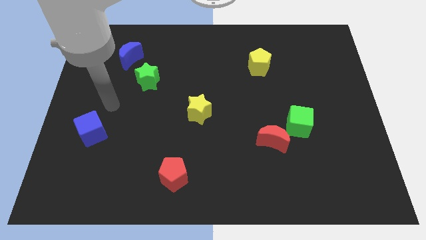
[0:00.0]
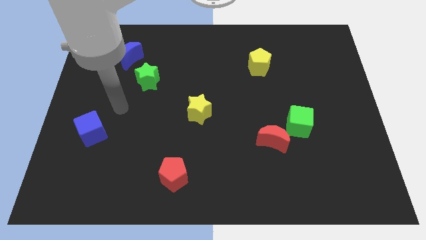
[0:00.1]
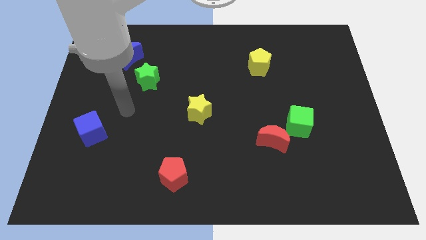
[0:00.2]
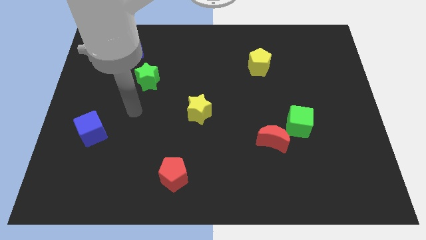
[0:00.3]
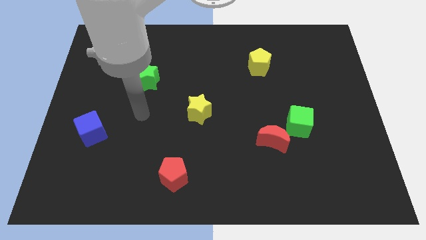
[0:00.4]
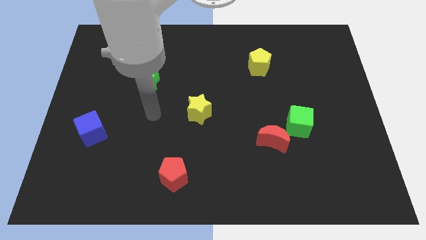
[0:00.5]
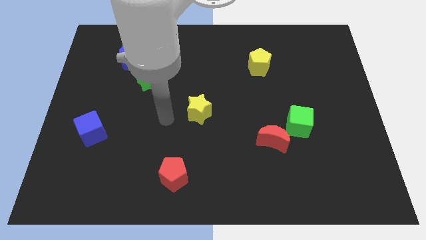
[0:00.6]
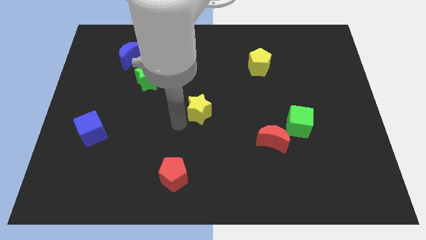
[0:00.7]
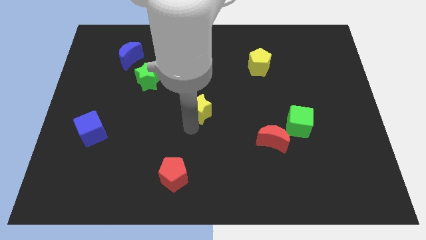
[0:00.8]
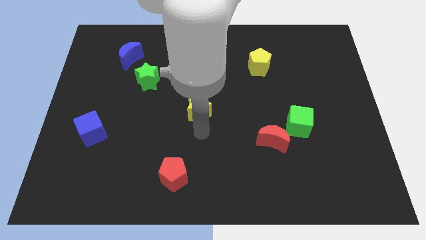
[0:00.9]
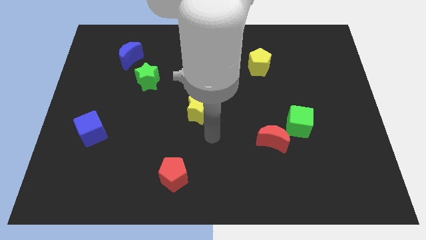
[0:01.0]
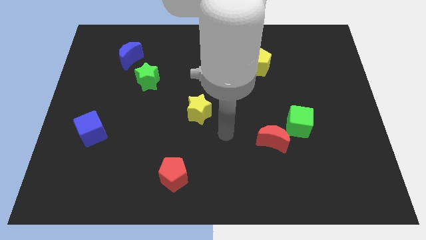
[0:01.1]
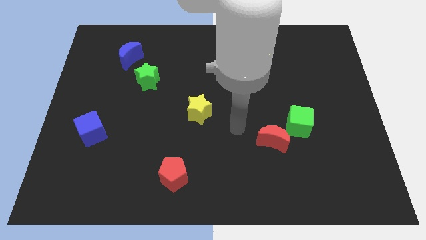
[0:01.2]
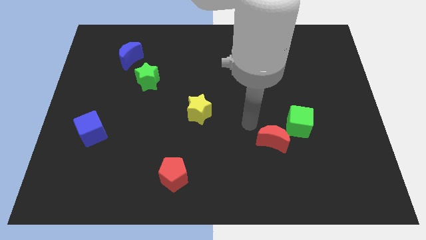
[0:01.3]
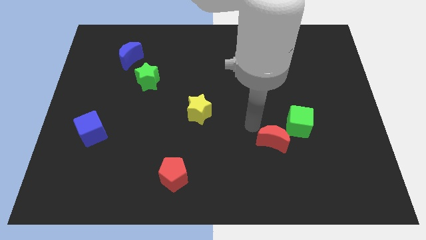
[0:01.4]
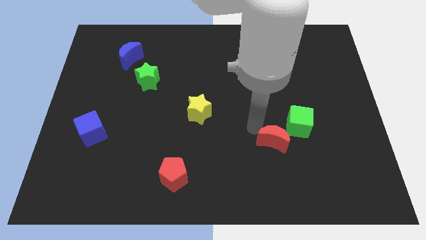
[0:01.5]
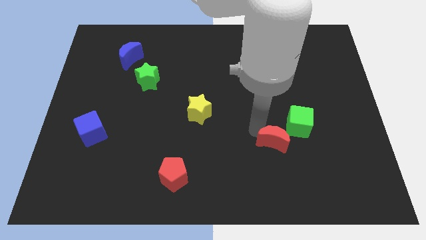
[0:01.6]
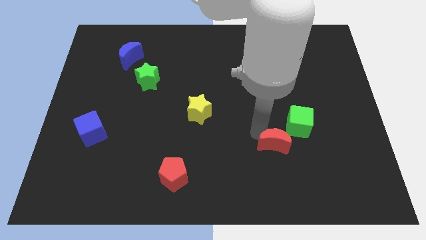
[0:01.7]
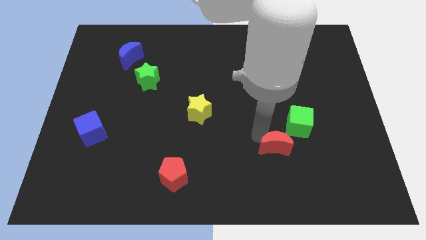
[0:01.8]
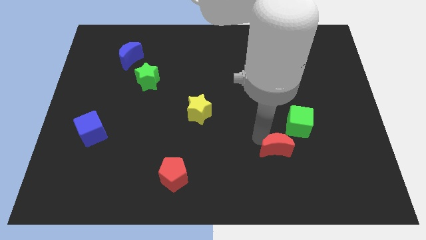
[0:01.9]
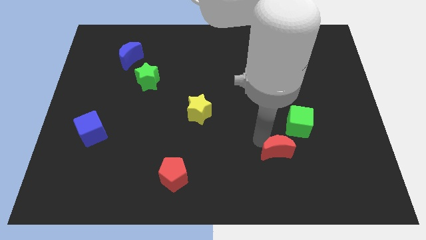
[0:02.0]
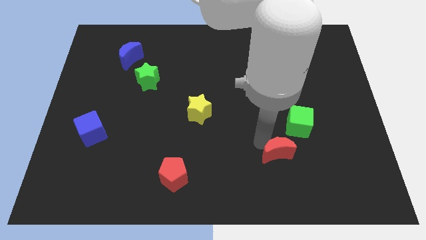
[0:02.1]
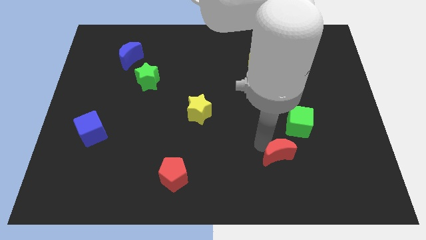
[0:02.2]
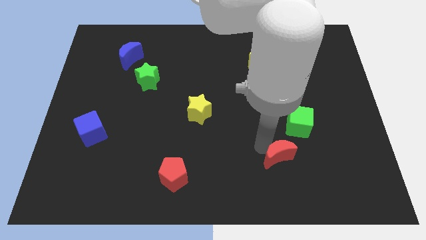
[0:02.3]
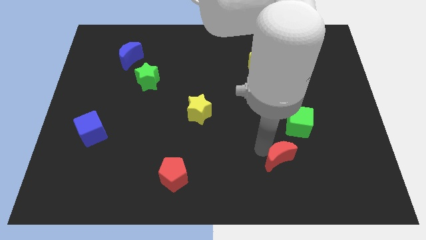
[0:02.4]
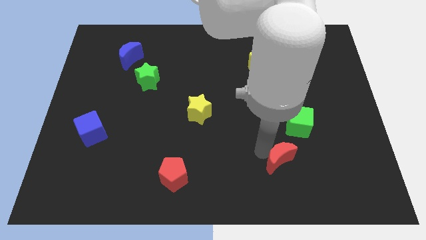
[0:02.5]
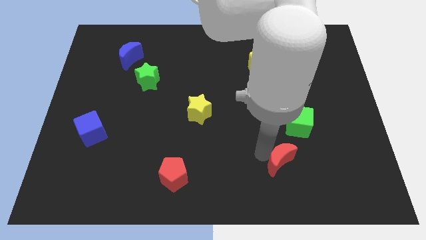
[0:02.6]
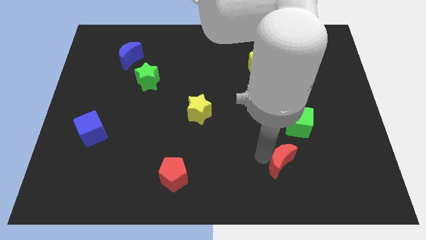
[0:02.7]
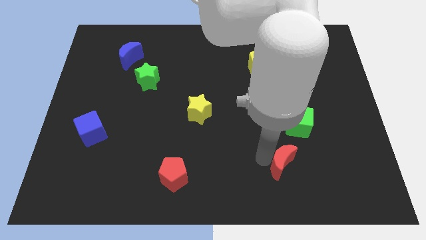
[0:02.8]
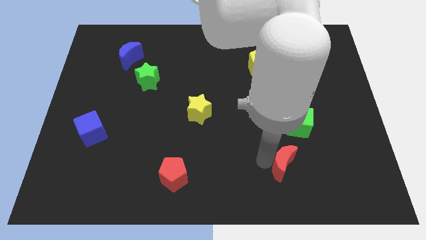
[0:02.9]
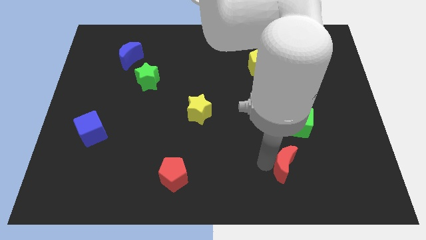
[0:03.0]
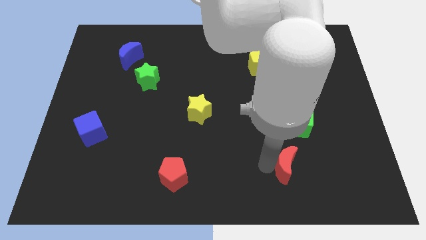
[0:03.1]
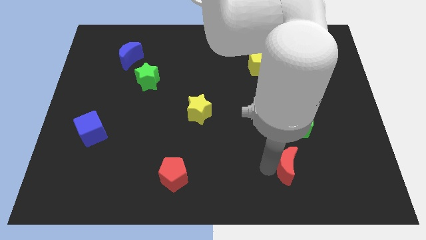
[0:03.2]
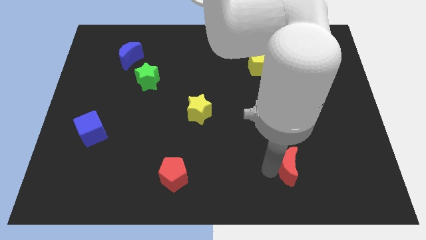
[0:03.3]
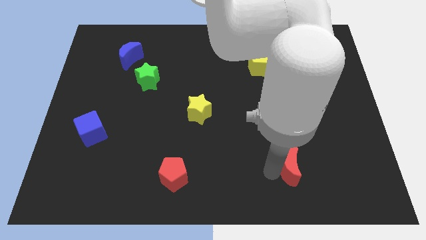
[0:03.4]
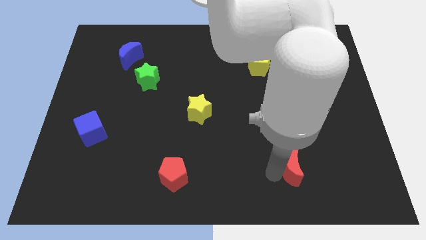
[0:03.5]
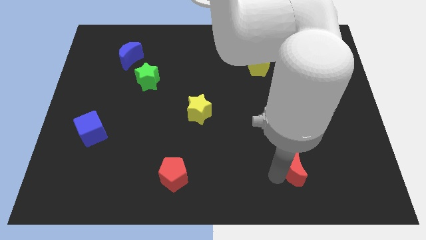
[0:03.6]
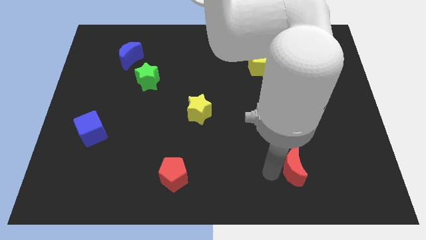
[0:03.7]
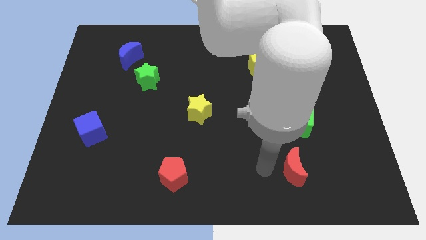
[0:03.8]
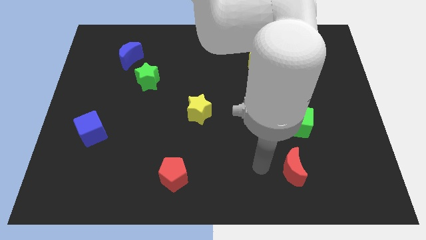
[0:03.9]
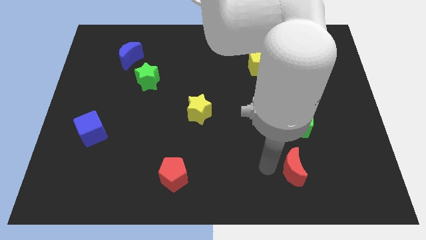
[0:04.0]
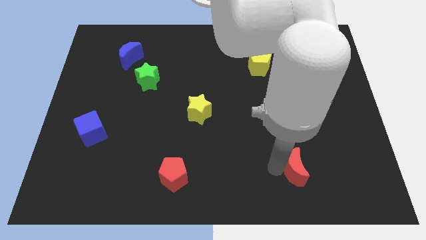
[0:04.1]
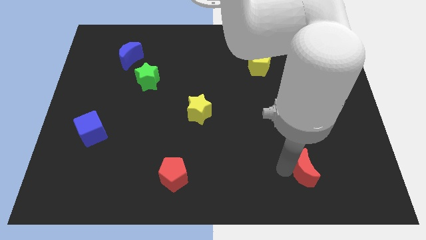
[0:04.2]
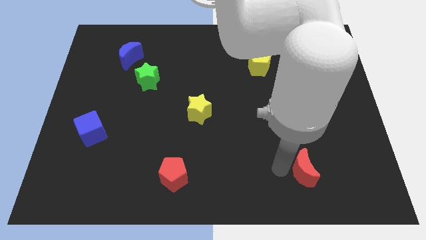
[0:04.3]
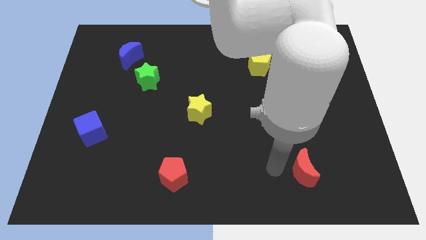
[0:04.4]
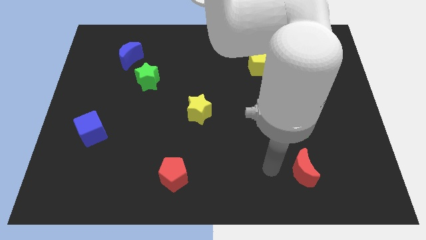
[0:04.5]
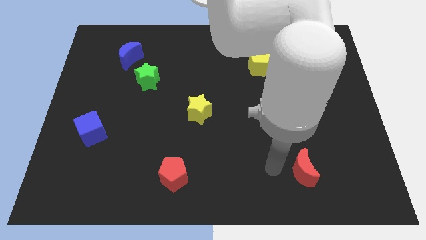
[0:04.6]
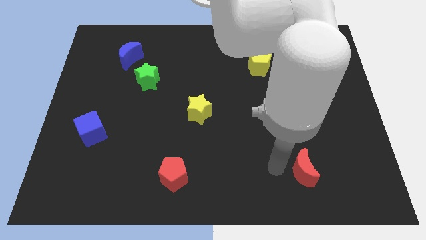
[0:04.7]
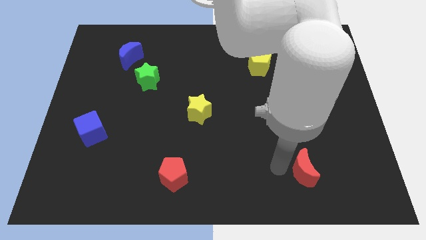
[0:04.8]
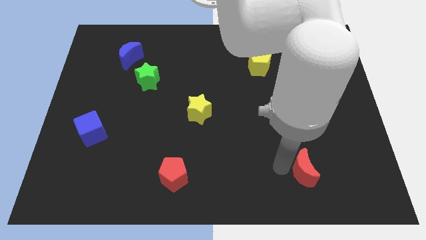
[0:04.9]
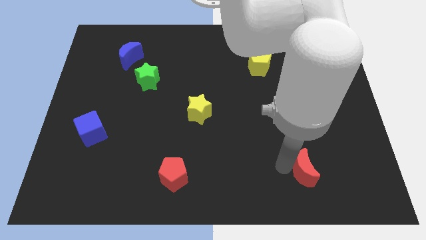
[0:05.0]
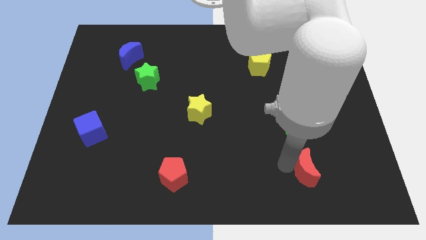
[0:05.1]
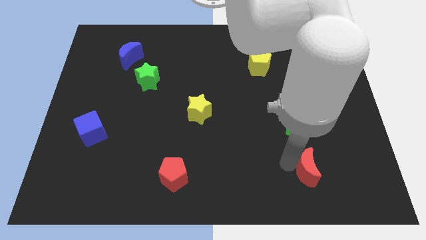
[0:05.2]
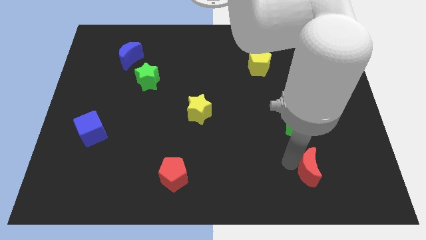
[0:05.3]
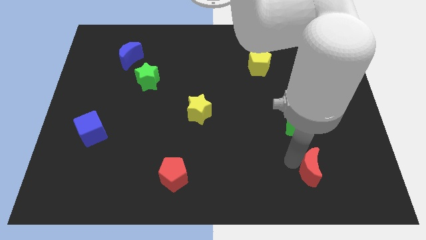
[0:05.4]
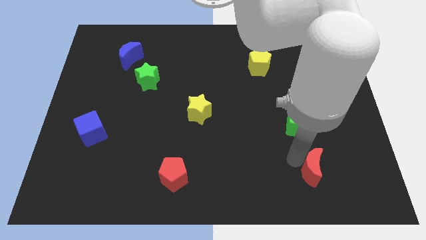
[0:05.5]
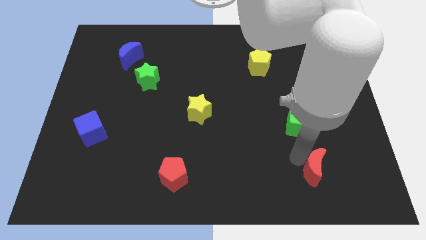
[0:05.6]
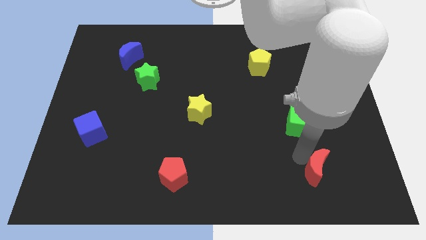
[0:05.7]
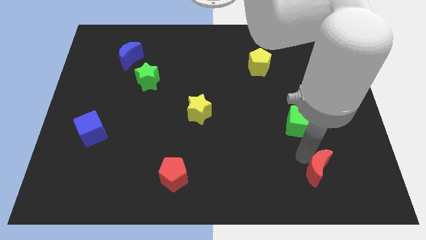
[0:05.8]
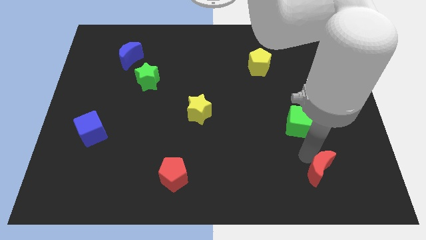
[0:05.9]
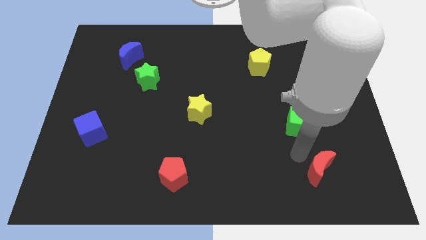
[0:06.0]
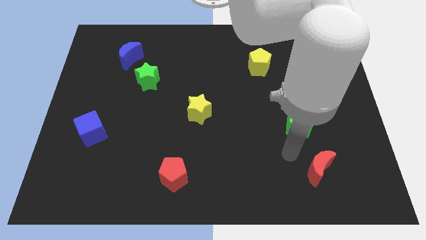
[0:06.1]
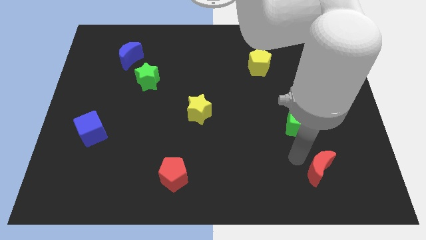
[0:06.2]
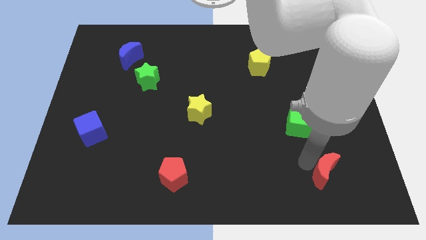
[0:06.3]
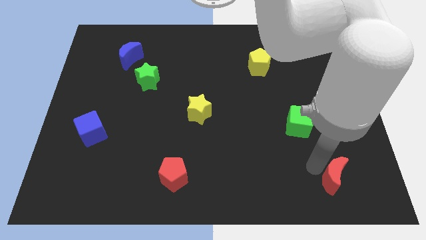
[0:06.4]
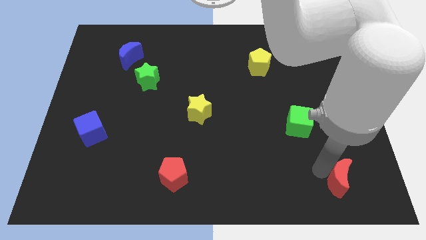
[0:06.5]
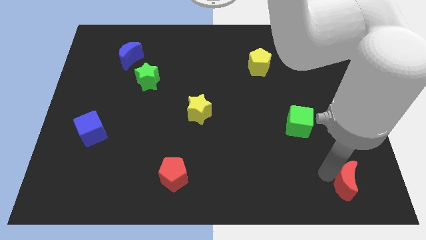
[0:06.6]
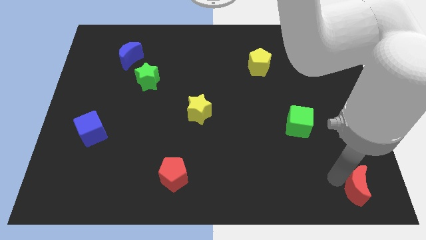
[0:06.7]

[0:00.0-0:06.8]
move the red moon to the lower right corner
